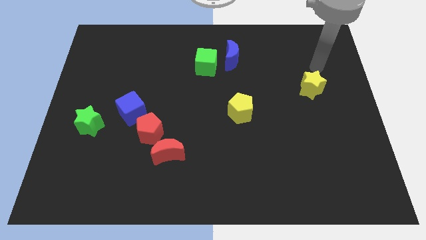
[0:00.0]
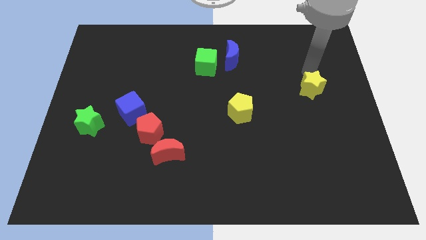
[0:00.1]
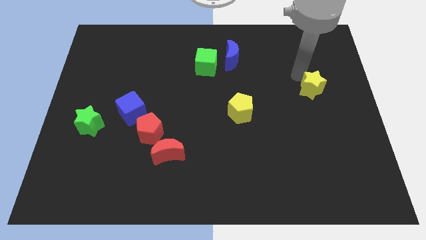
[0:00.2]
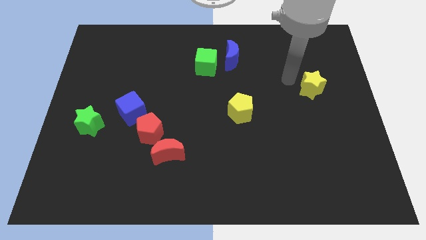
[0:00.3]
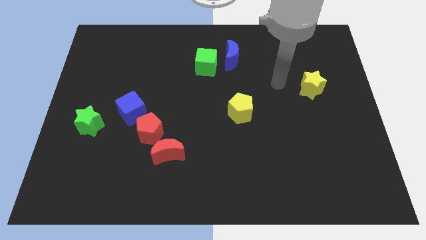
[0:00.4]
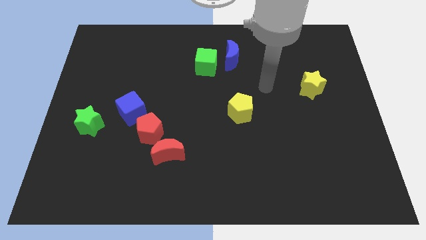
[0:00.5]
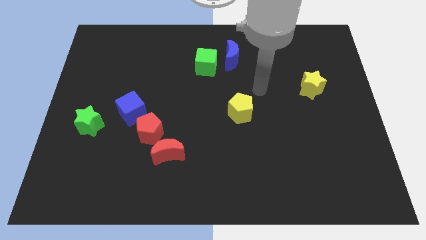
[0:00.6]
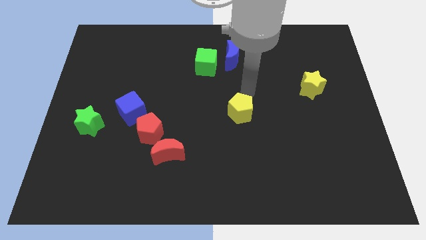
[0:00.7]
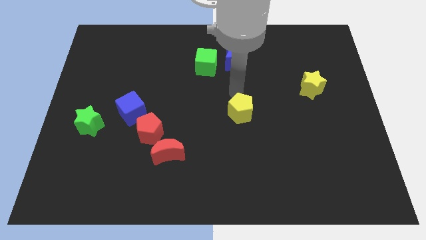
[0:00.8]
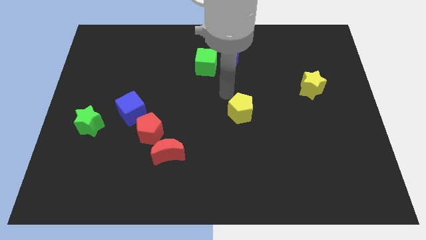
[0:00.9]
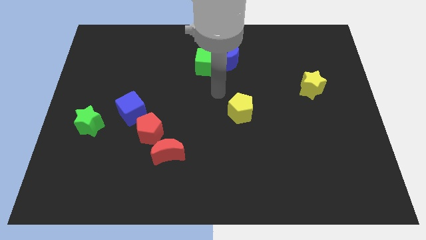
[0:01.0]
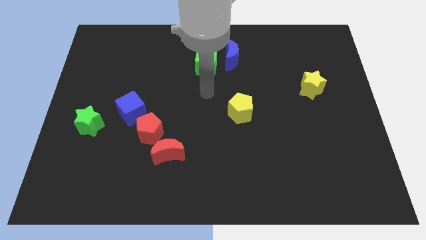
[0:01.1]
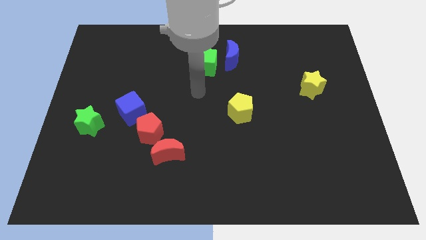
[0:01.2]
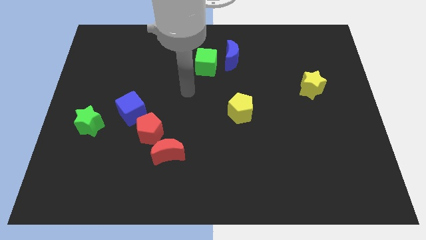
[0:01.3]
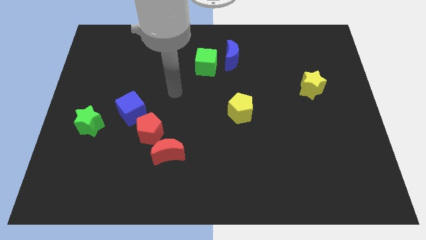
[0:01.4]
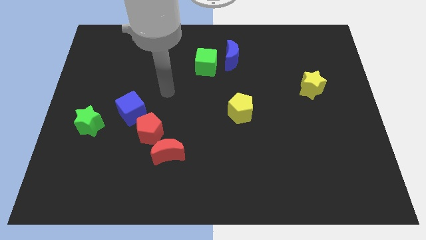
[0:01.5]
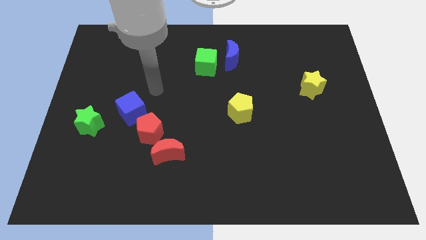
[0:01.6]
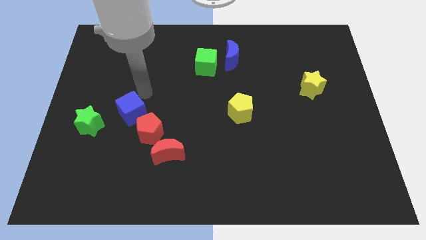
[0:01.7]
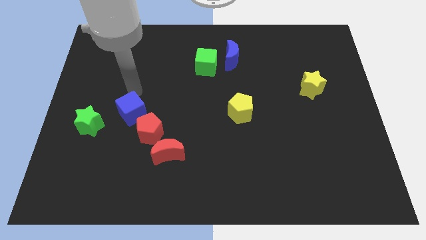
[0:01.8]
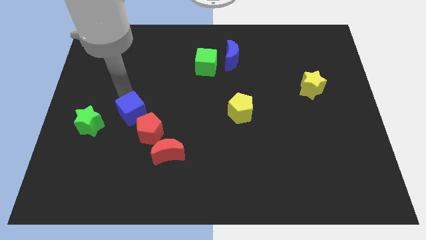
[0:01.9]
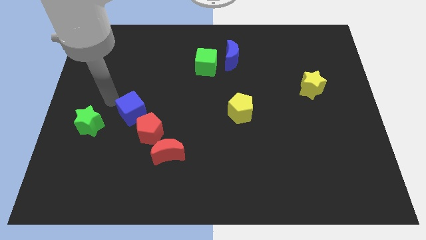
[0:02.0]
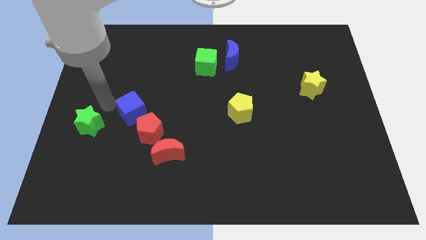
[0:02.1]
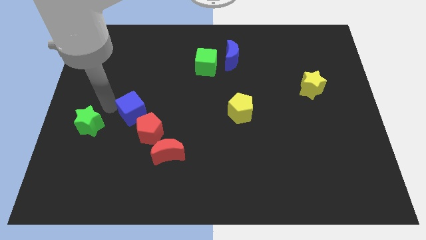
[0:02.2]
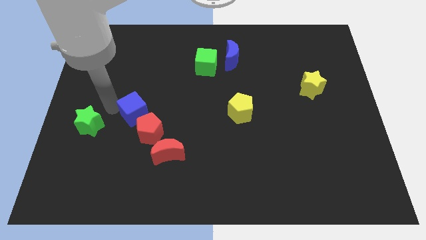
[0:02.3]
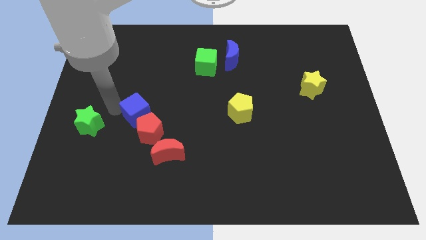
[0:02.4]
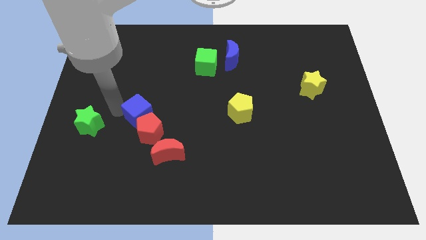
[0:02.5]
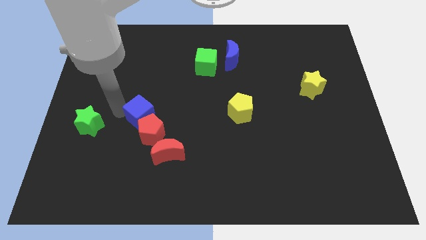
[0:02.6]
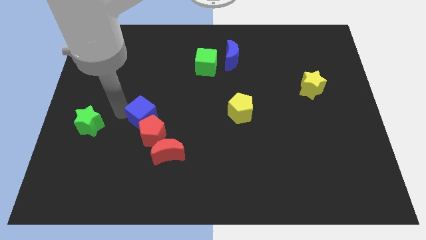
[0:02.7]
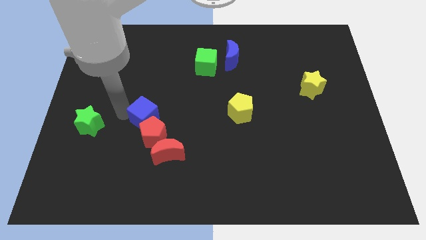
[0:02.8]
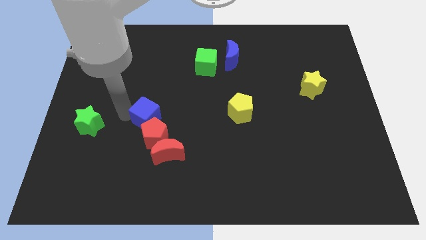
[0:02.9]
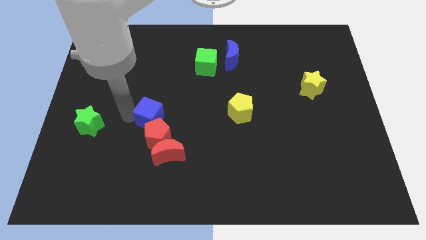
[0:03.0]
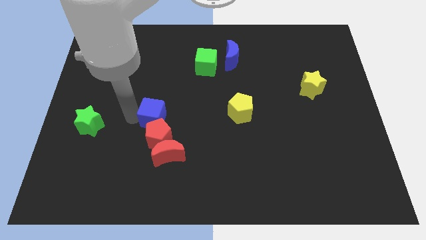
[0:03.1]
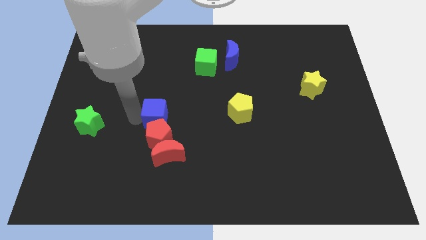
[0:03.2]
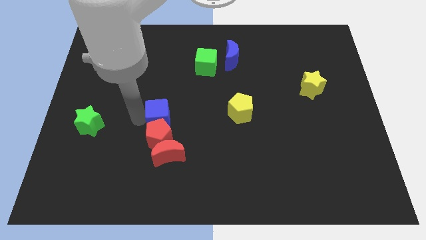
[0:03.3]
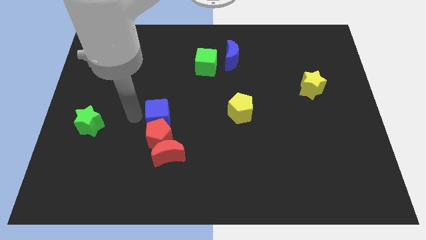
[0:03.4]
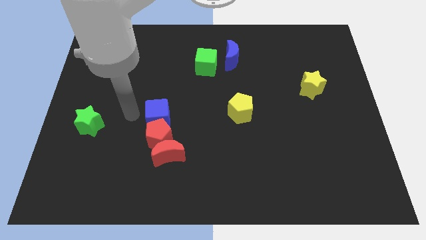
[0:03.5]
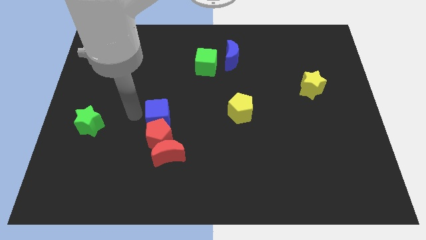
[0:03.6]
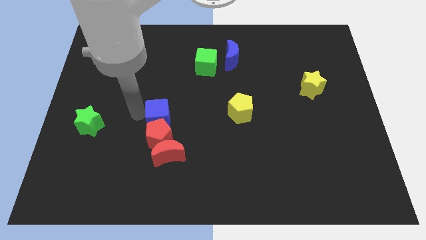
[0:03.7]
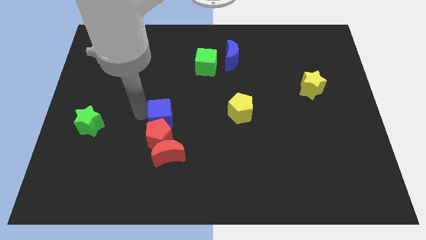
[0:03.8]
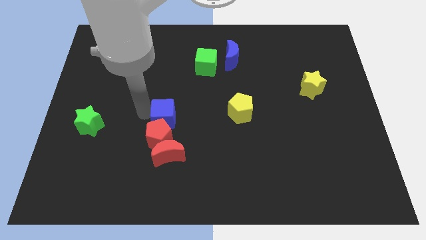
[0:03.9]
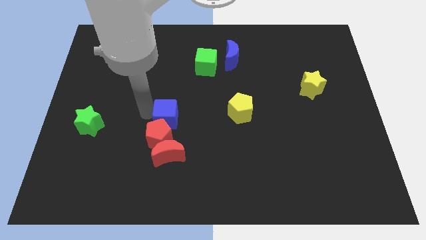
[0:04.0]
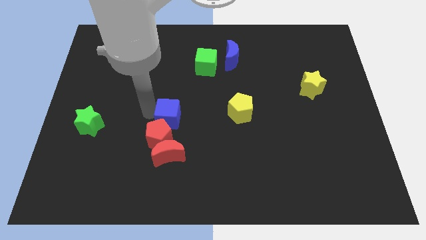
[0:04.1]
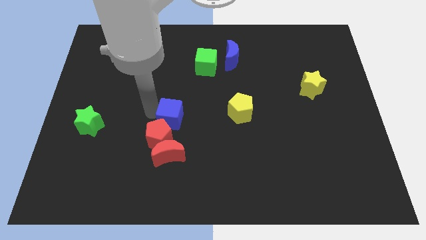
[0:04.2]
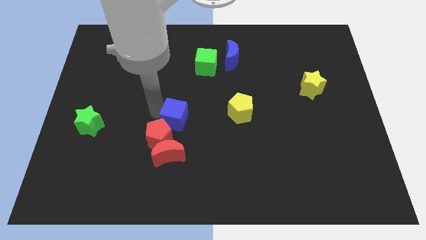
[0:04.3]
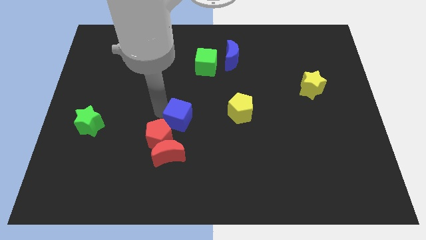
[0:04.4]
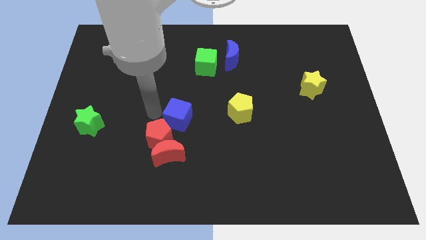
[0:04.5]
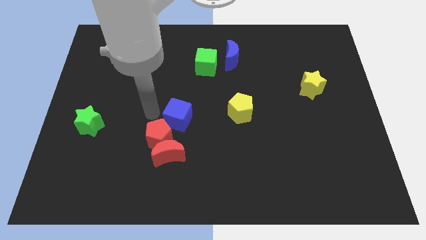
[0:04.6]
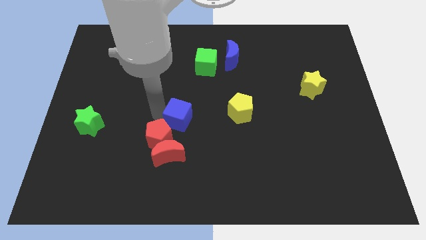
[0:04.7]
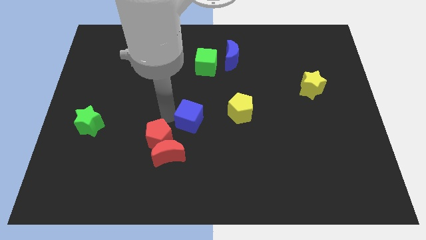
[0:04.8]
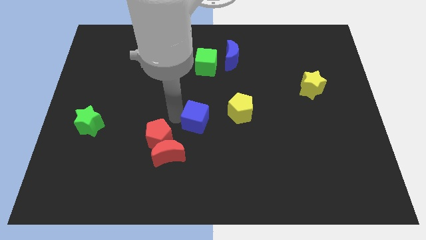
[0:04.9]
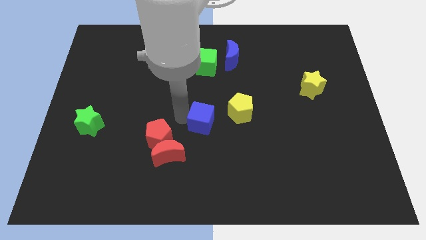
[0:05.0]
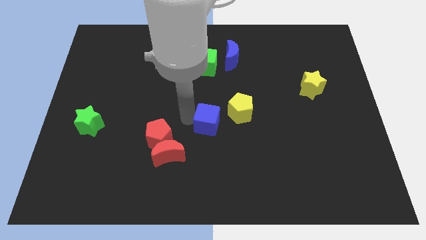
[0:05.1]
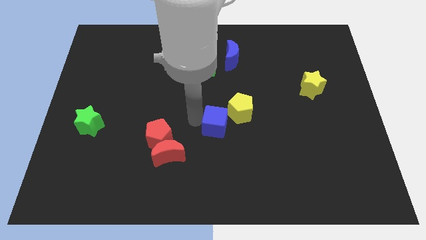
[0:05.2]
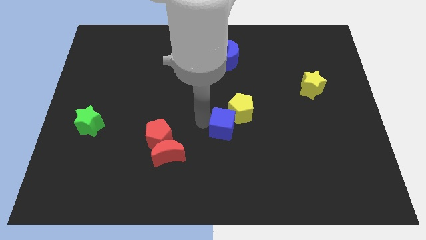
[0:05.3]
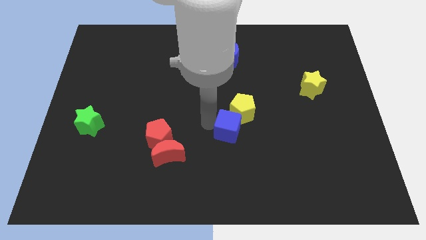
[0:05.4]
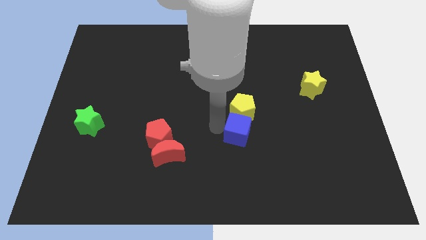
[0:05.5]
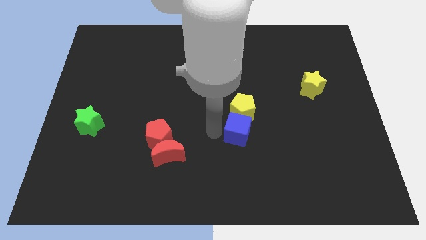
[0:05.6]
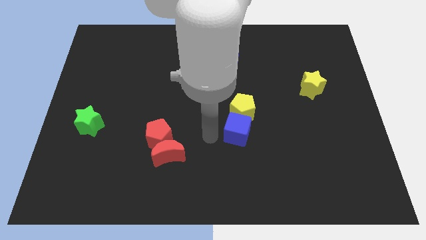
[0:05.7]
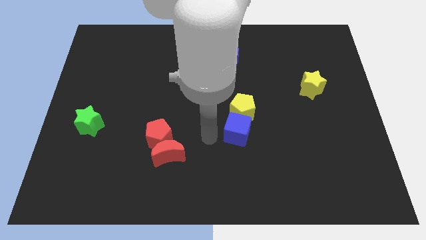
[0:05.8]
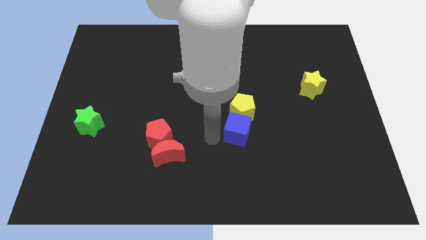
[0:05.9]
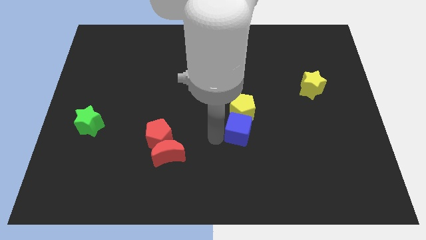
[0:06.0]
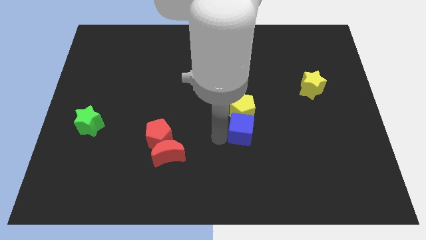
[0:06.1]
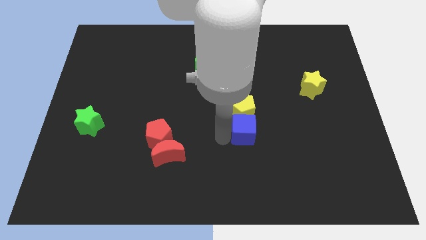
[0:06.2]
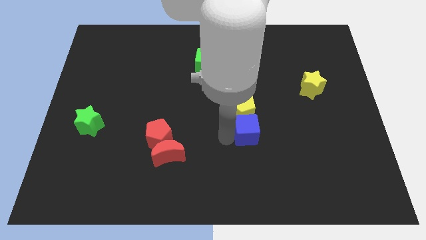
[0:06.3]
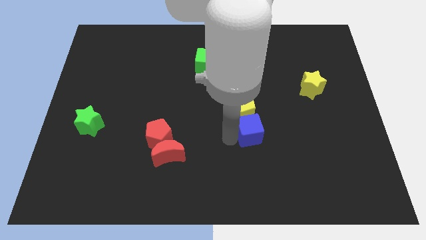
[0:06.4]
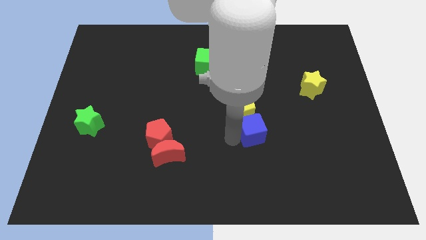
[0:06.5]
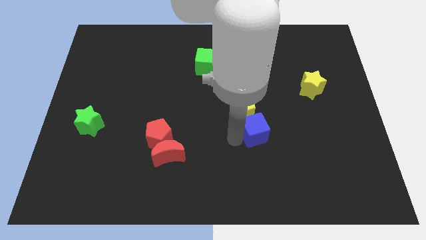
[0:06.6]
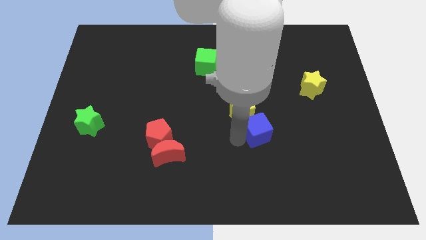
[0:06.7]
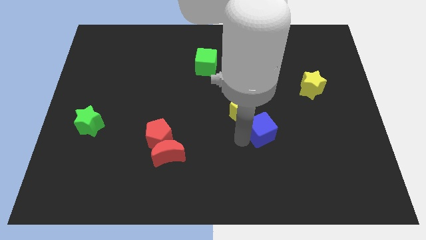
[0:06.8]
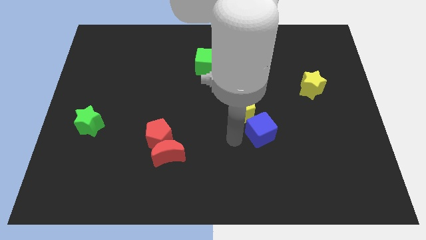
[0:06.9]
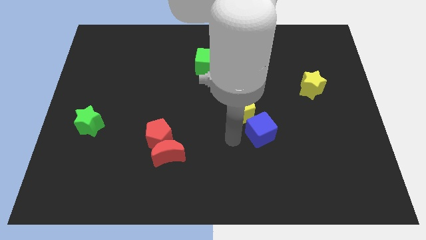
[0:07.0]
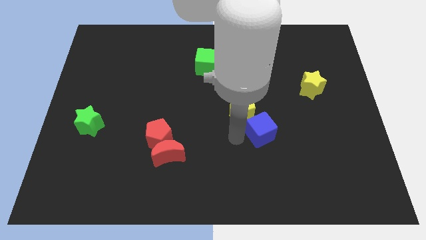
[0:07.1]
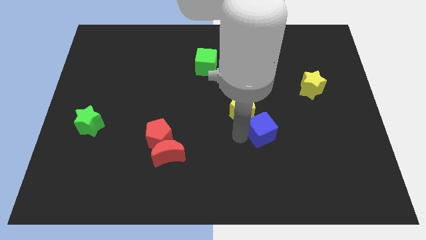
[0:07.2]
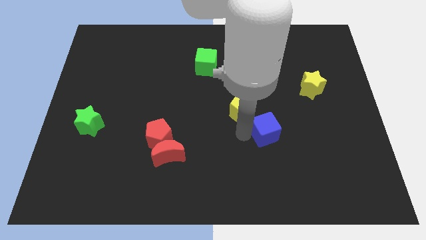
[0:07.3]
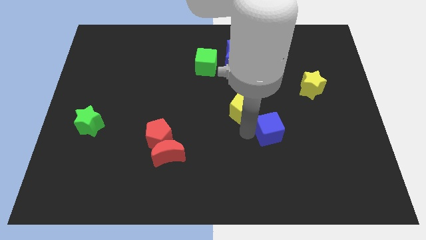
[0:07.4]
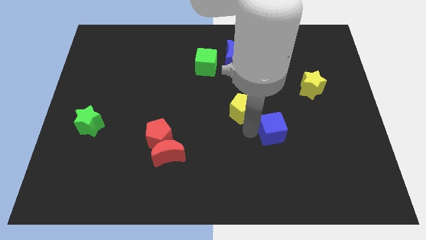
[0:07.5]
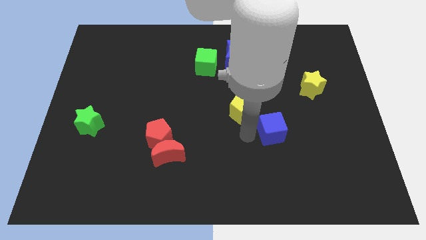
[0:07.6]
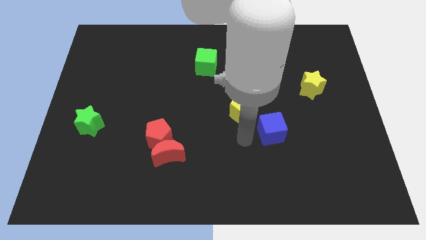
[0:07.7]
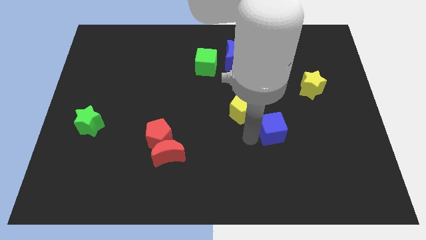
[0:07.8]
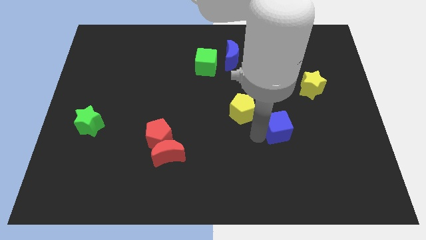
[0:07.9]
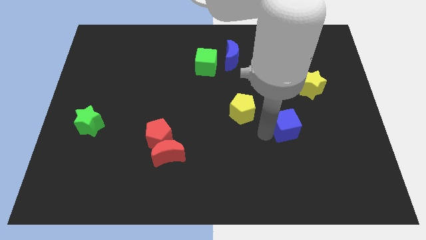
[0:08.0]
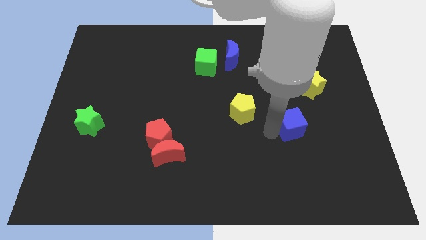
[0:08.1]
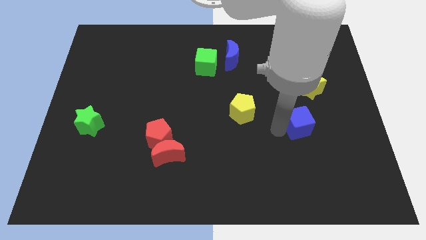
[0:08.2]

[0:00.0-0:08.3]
move the blue cube below the yellow star
